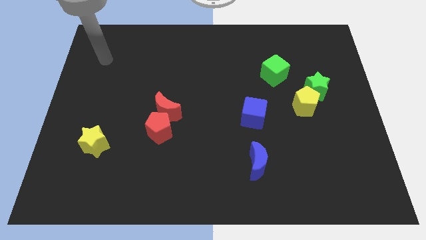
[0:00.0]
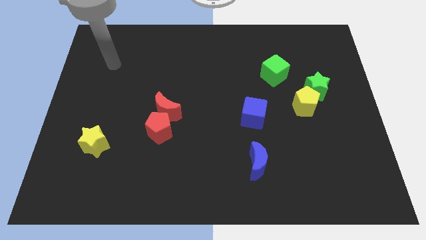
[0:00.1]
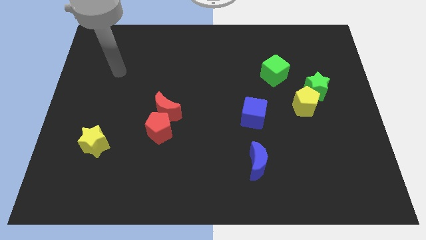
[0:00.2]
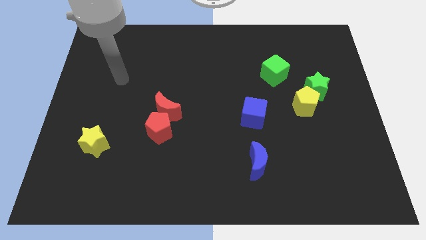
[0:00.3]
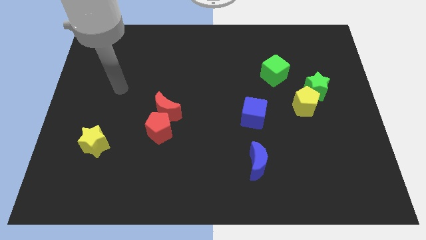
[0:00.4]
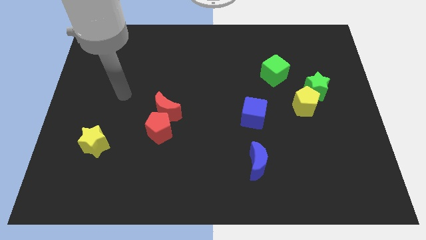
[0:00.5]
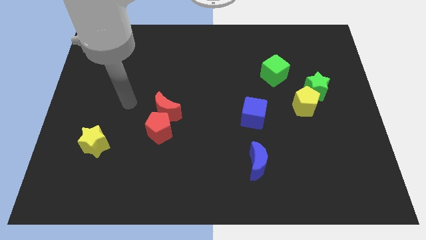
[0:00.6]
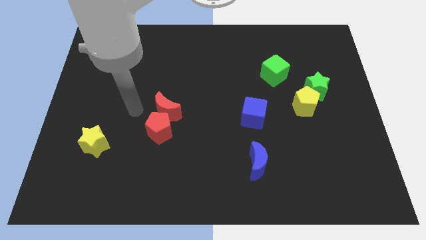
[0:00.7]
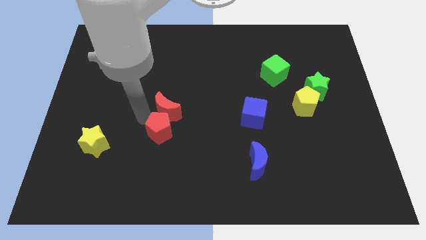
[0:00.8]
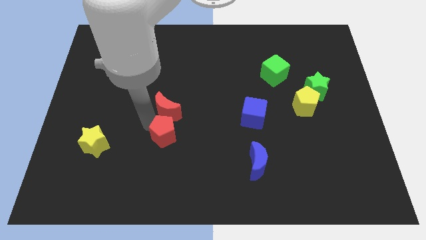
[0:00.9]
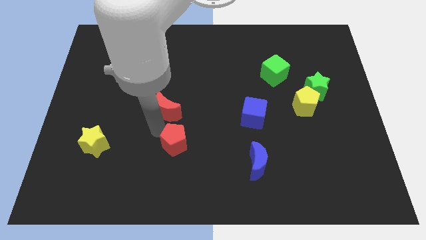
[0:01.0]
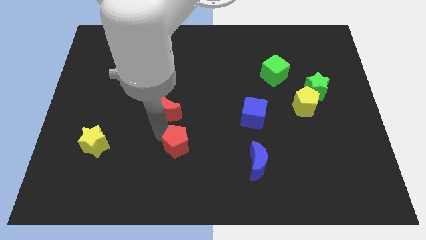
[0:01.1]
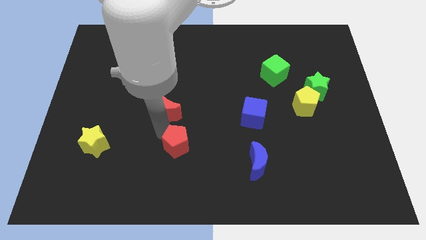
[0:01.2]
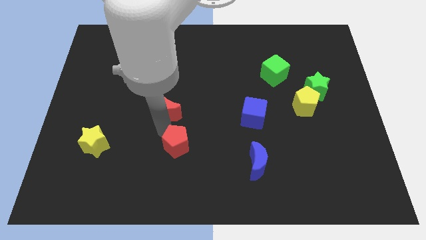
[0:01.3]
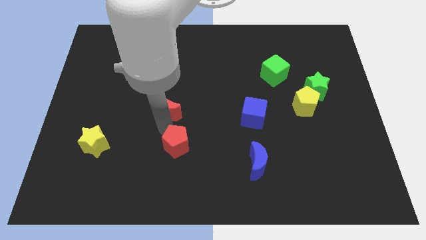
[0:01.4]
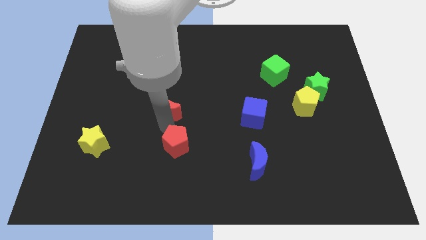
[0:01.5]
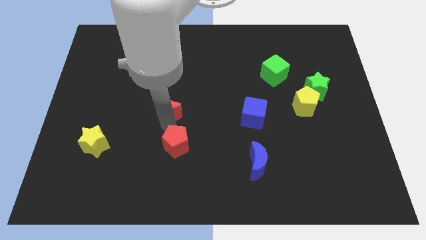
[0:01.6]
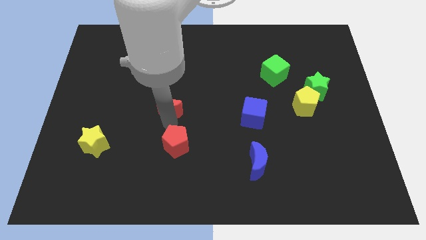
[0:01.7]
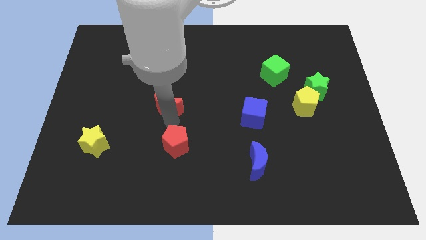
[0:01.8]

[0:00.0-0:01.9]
separate the red moon from the red pentagon

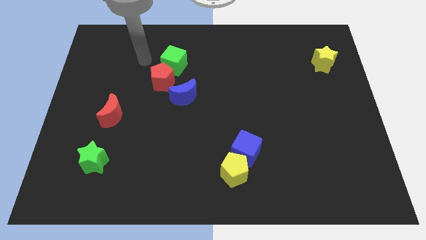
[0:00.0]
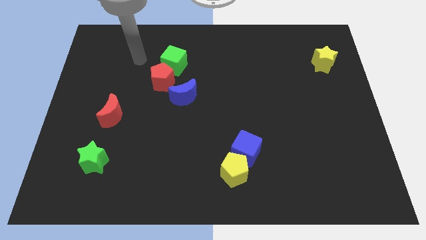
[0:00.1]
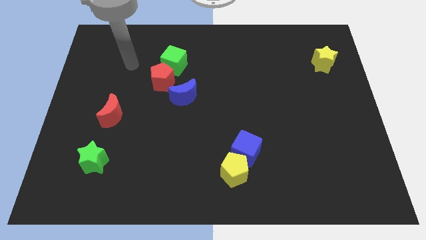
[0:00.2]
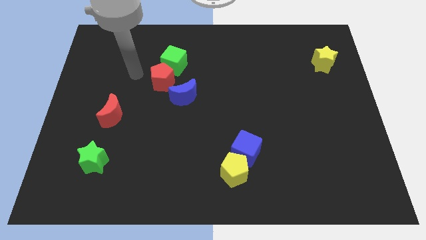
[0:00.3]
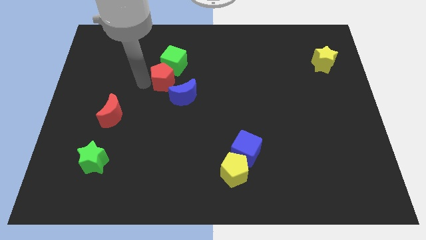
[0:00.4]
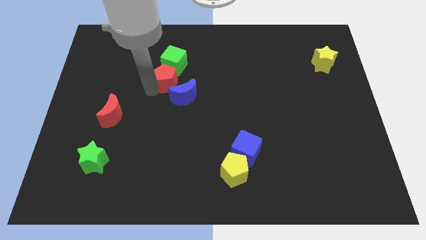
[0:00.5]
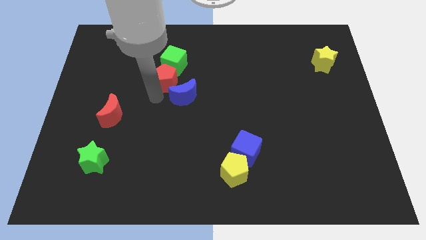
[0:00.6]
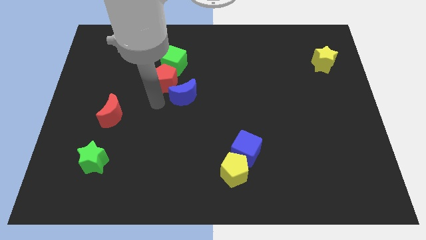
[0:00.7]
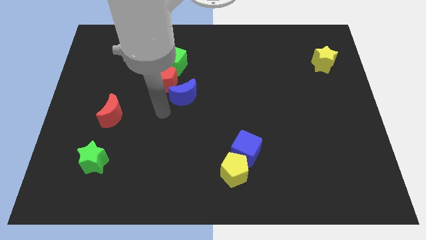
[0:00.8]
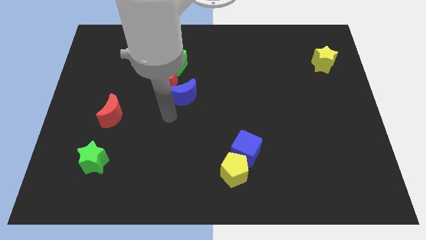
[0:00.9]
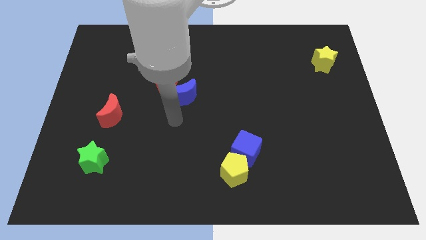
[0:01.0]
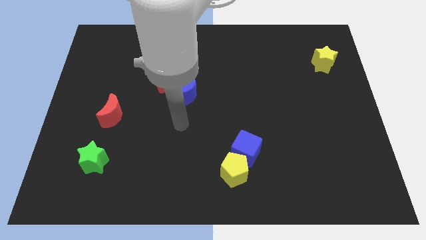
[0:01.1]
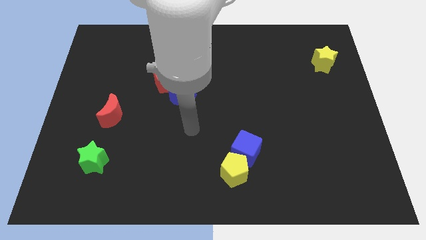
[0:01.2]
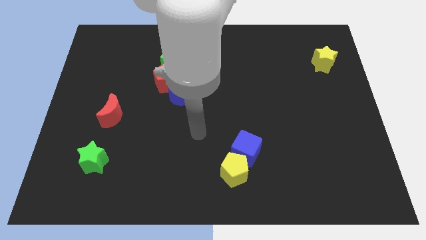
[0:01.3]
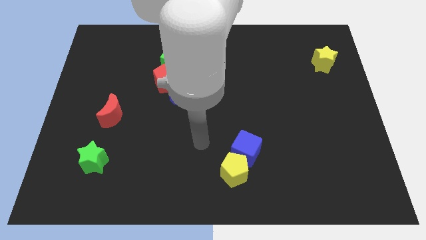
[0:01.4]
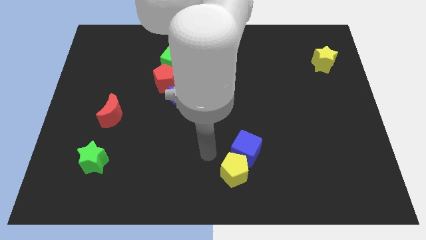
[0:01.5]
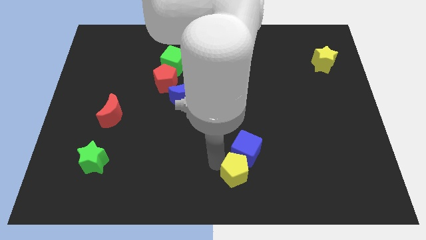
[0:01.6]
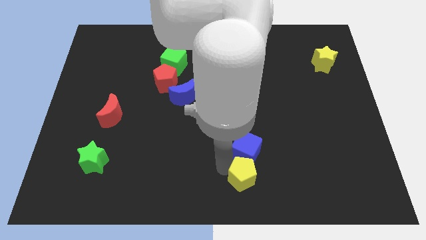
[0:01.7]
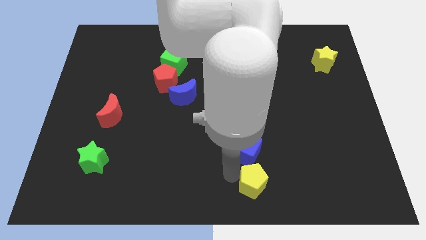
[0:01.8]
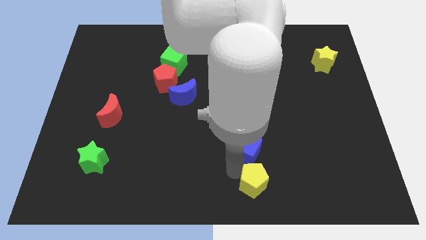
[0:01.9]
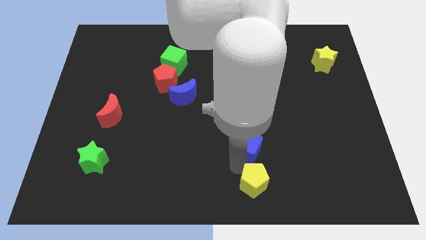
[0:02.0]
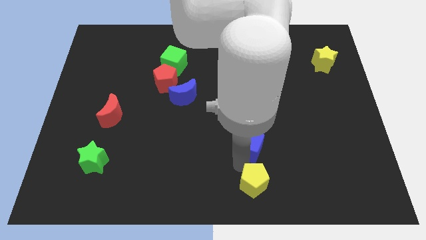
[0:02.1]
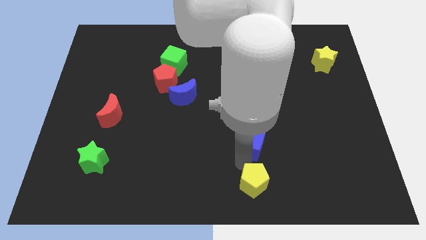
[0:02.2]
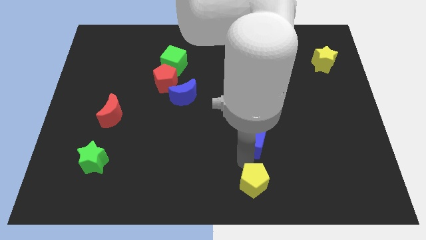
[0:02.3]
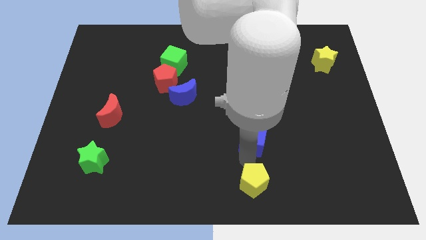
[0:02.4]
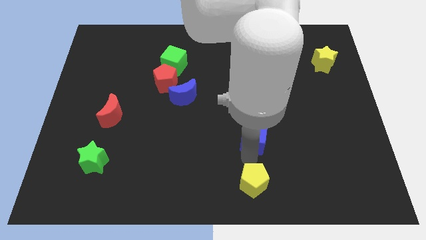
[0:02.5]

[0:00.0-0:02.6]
pull the blue cube apart from the yellow pentagon

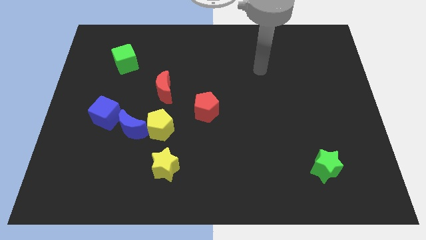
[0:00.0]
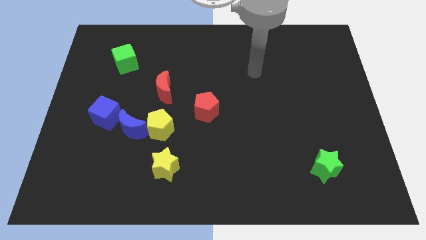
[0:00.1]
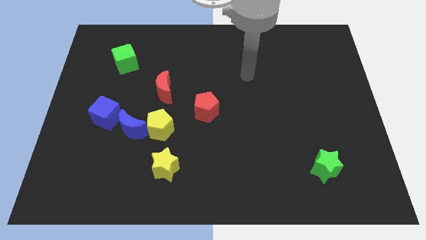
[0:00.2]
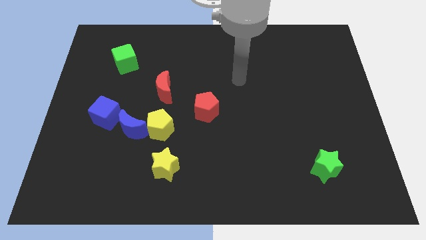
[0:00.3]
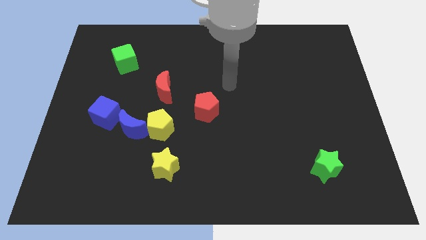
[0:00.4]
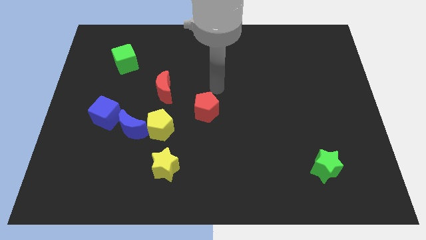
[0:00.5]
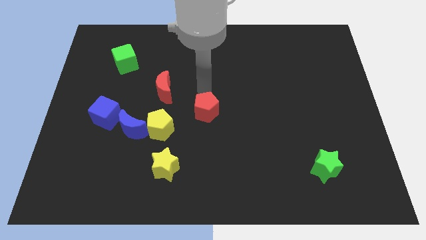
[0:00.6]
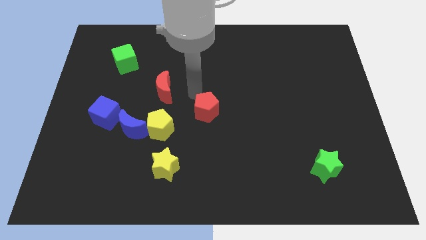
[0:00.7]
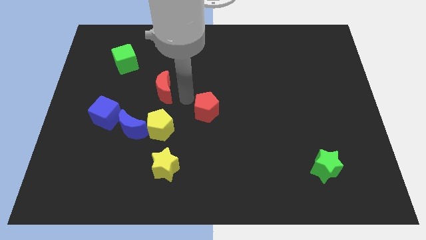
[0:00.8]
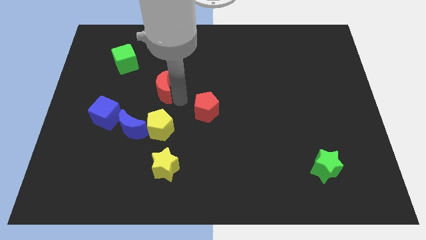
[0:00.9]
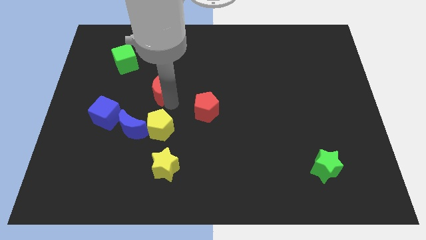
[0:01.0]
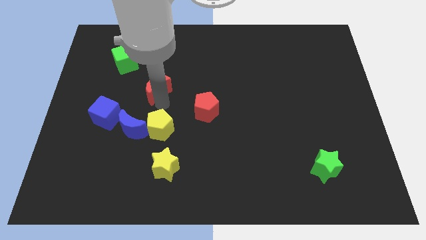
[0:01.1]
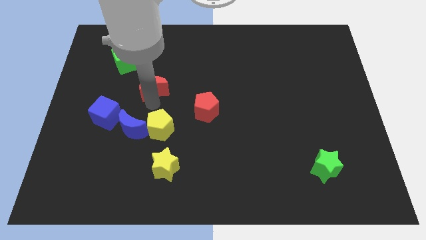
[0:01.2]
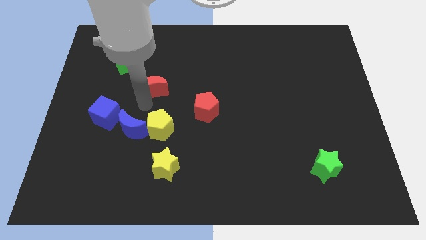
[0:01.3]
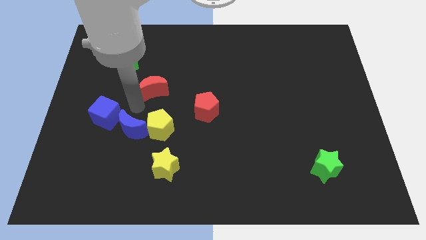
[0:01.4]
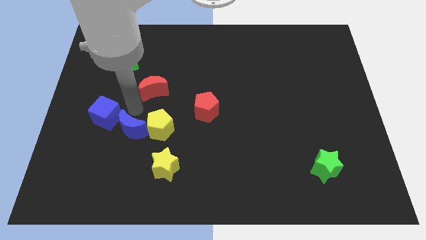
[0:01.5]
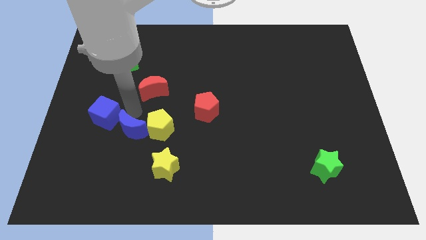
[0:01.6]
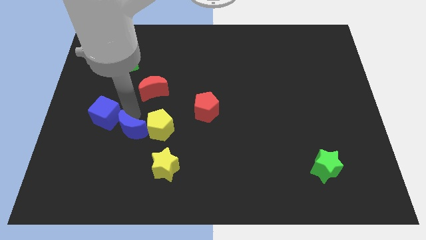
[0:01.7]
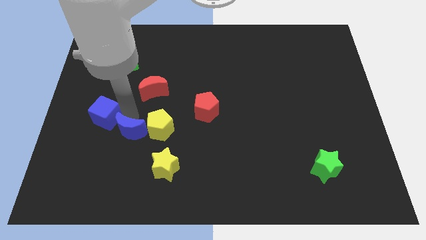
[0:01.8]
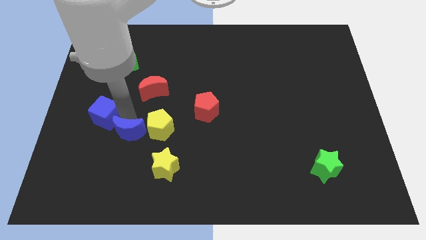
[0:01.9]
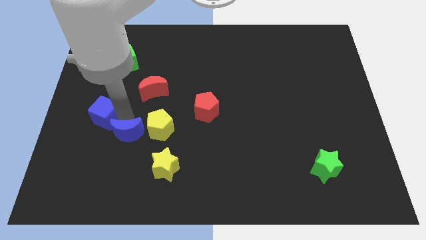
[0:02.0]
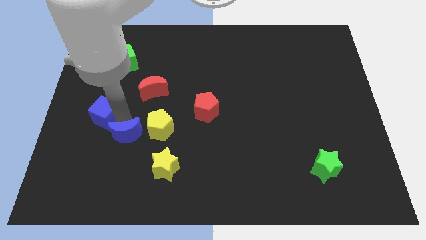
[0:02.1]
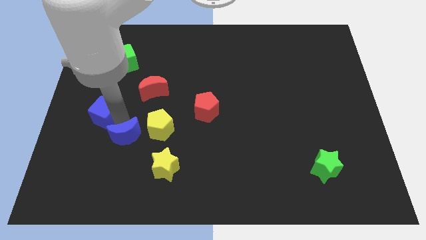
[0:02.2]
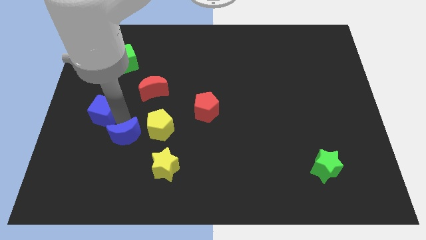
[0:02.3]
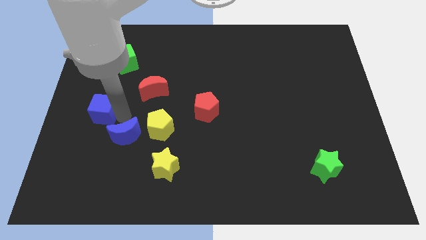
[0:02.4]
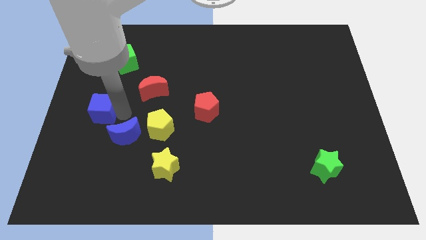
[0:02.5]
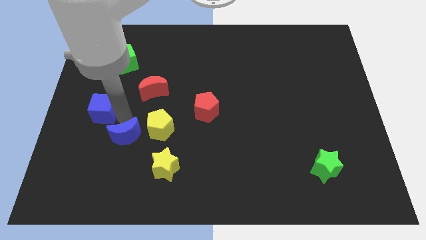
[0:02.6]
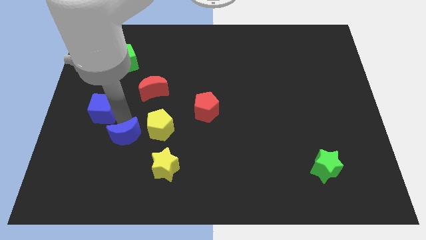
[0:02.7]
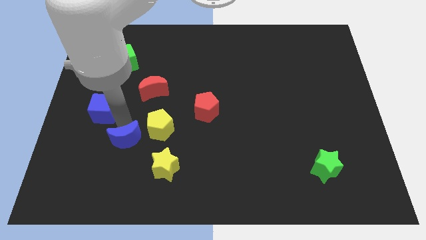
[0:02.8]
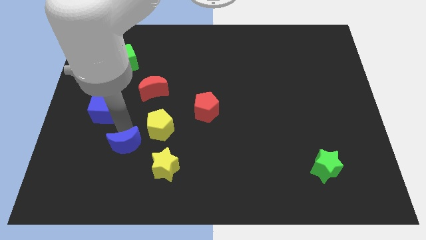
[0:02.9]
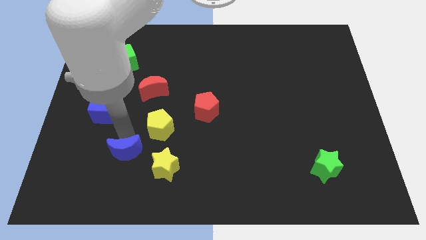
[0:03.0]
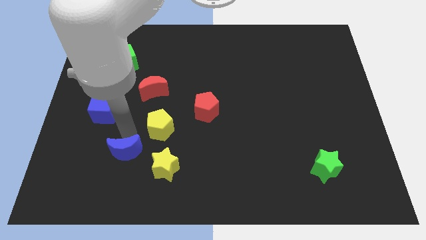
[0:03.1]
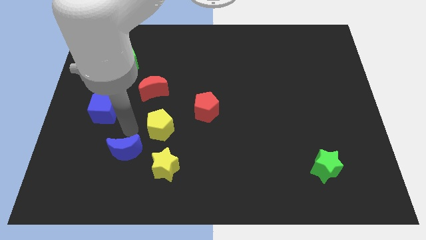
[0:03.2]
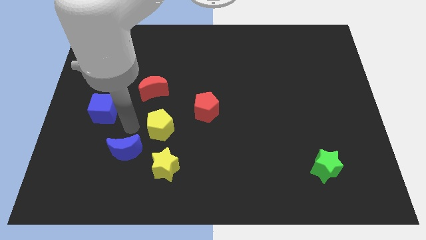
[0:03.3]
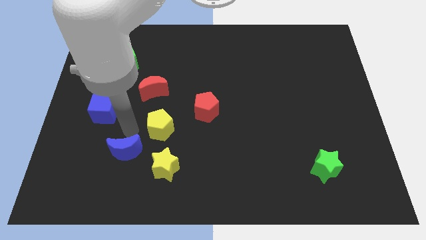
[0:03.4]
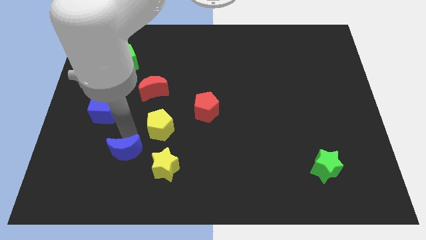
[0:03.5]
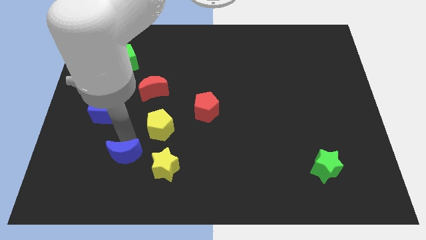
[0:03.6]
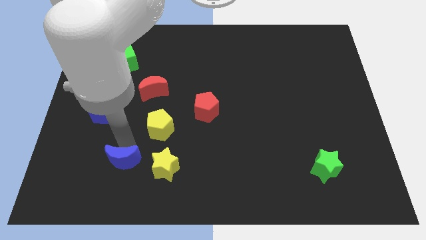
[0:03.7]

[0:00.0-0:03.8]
move the blue moon away from the yellow pentagon and blue cube

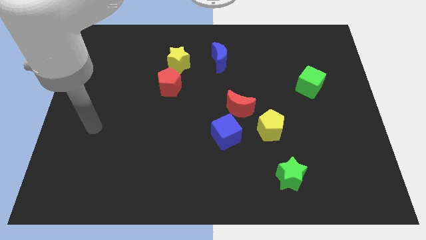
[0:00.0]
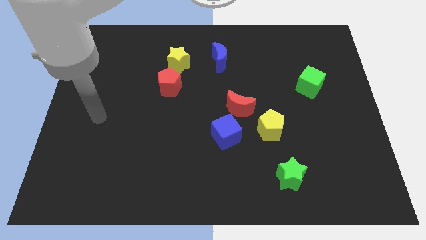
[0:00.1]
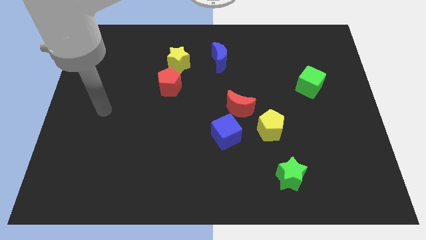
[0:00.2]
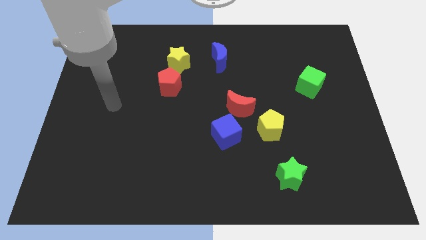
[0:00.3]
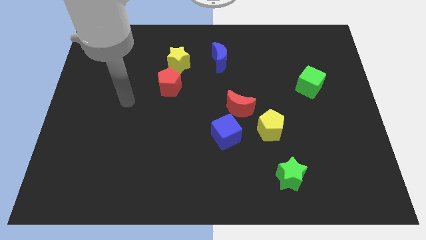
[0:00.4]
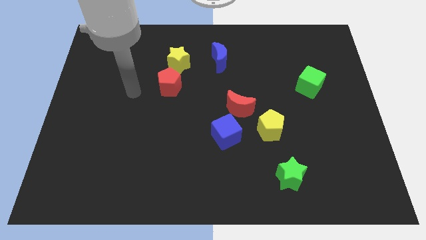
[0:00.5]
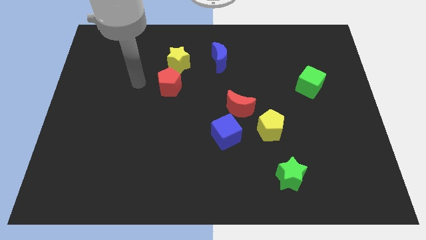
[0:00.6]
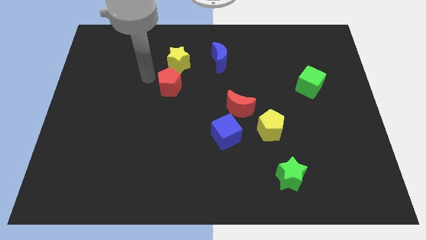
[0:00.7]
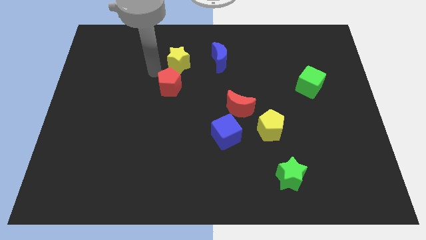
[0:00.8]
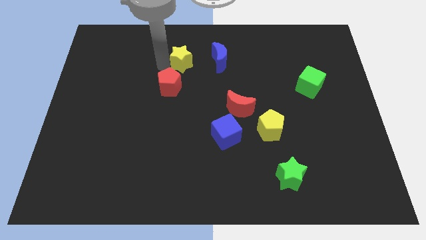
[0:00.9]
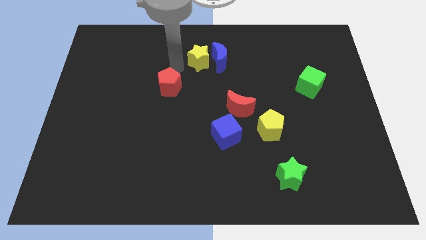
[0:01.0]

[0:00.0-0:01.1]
move the red pentagon away from the yellow star
